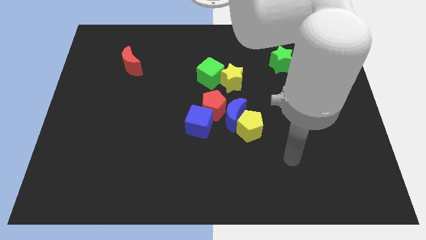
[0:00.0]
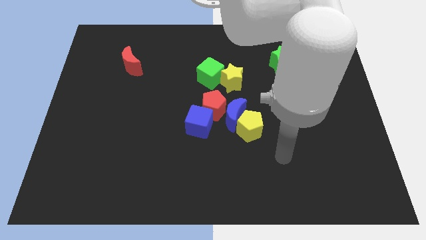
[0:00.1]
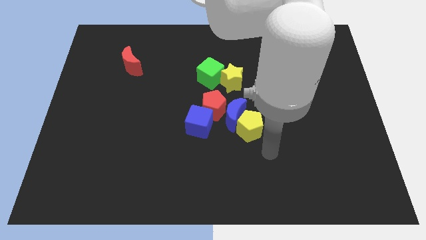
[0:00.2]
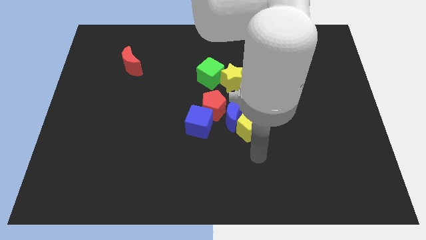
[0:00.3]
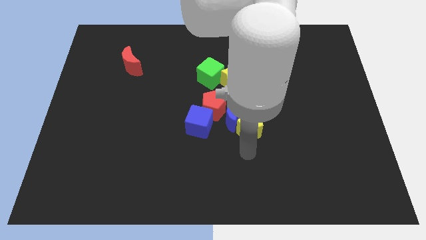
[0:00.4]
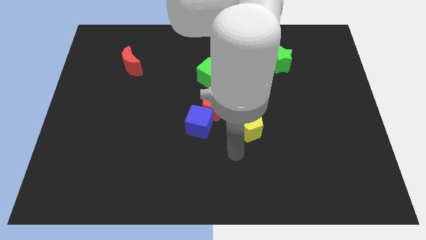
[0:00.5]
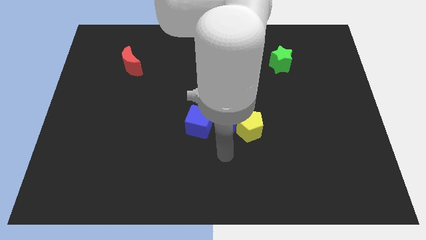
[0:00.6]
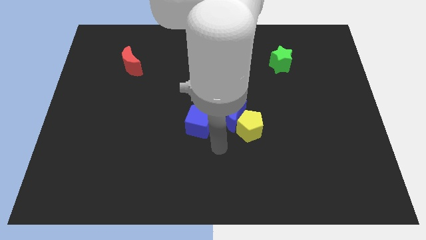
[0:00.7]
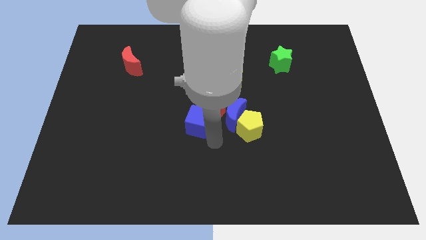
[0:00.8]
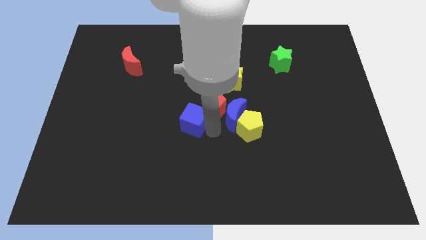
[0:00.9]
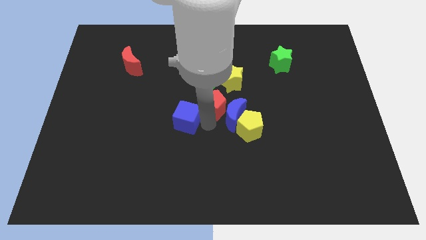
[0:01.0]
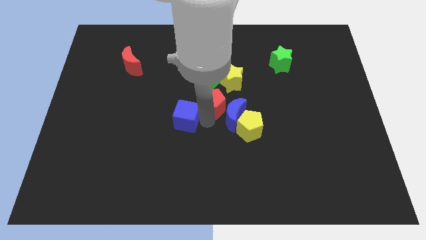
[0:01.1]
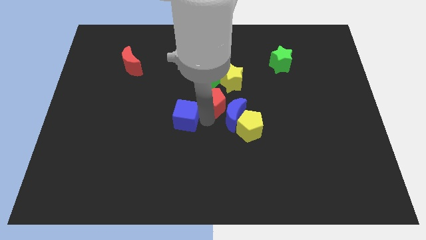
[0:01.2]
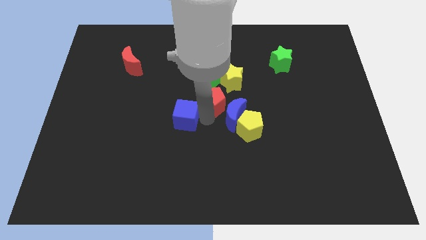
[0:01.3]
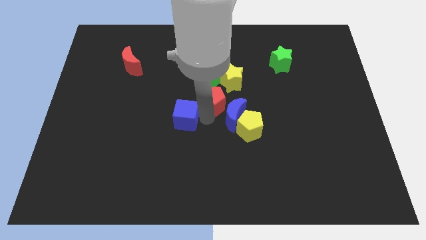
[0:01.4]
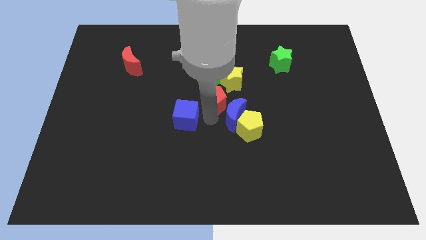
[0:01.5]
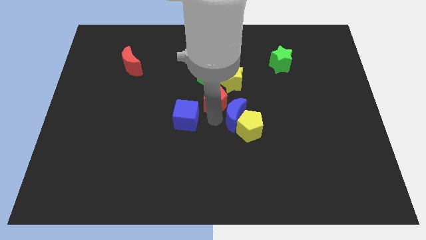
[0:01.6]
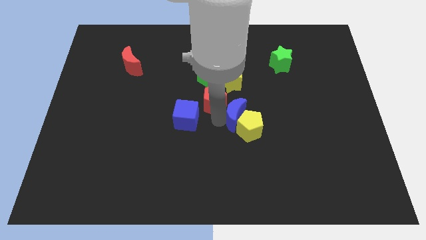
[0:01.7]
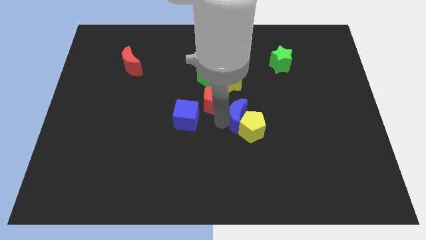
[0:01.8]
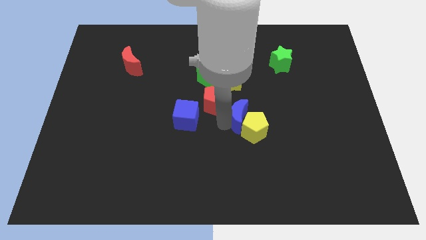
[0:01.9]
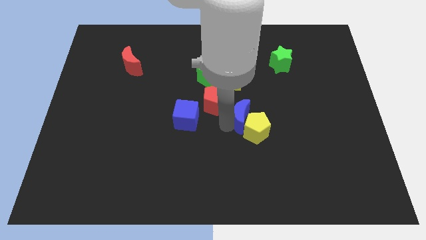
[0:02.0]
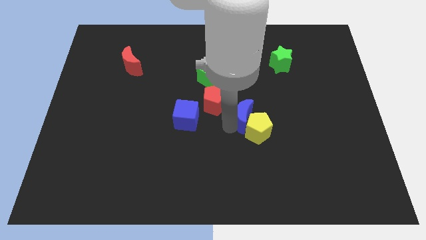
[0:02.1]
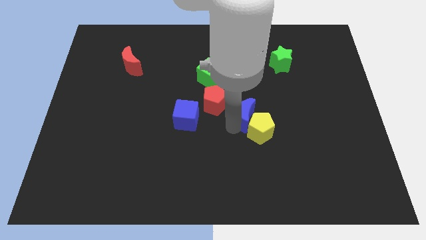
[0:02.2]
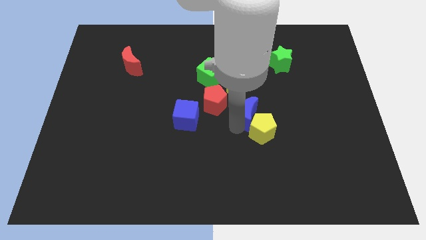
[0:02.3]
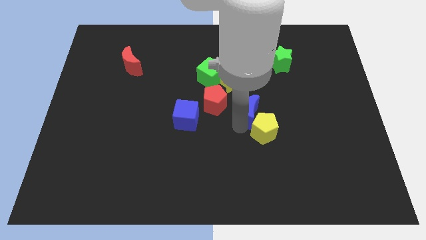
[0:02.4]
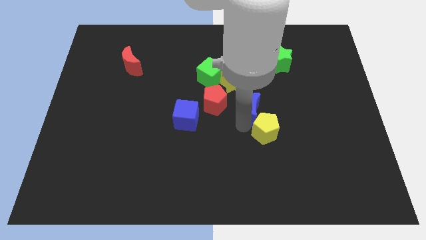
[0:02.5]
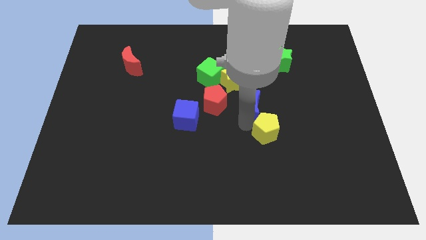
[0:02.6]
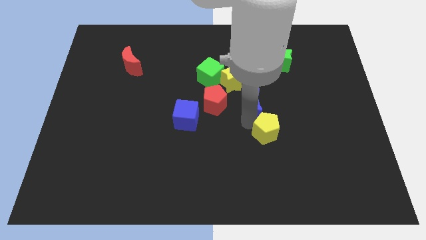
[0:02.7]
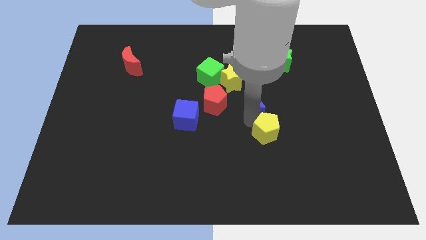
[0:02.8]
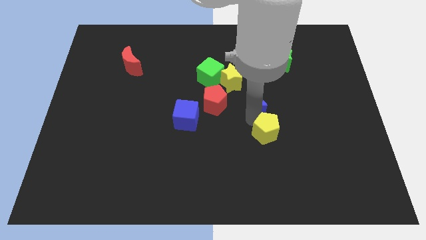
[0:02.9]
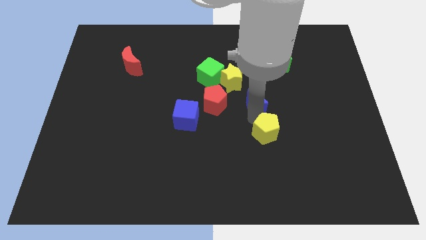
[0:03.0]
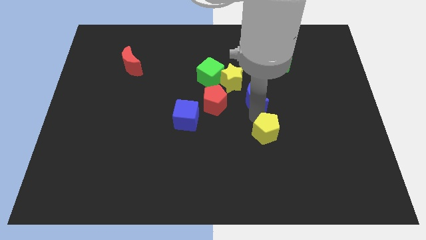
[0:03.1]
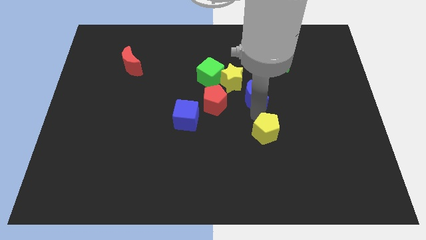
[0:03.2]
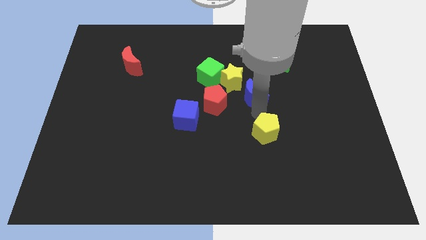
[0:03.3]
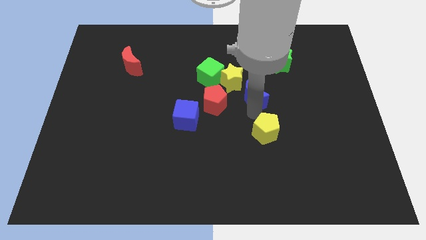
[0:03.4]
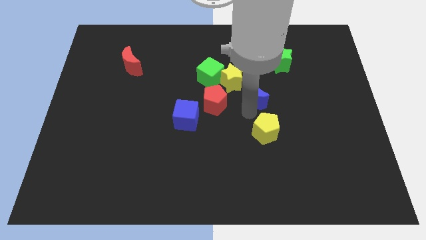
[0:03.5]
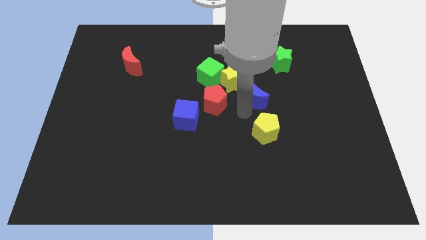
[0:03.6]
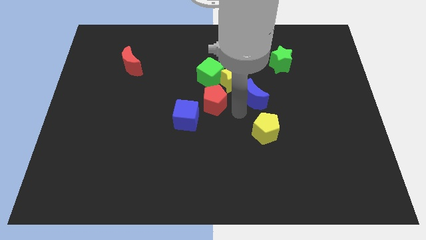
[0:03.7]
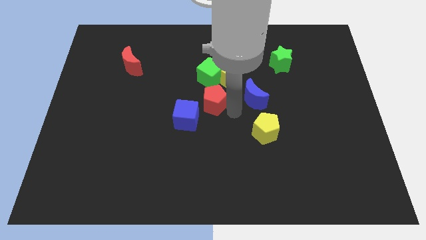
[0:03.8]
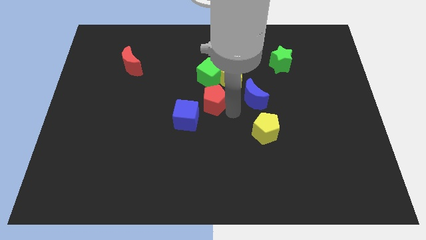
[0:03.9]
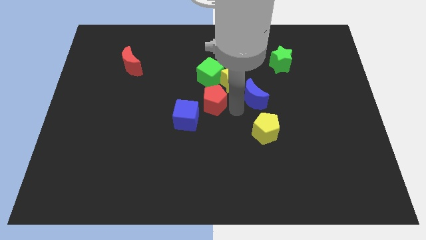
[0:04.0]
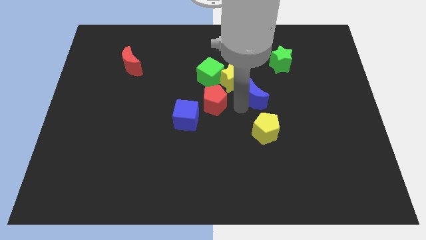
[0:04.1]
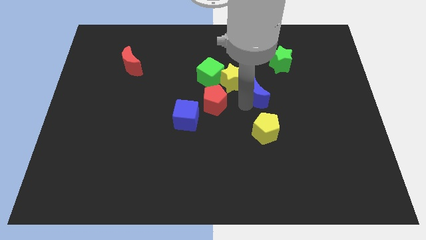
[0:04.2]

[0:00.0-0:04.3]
separate the blue moon from the group of blocks

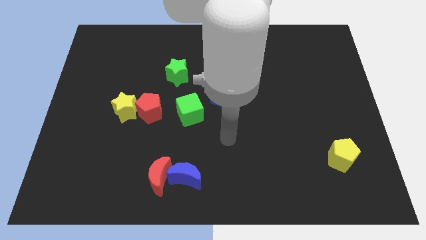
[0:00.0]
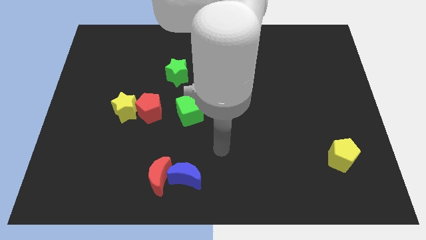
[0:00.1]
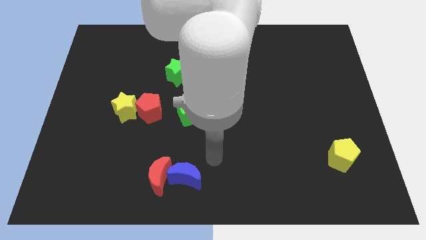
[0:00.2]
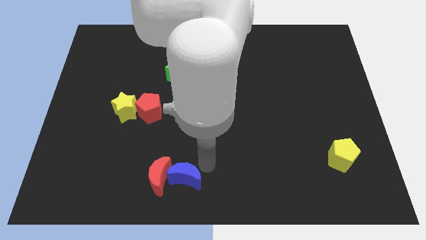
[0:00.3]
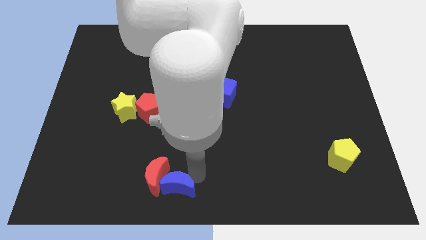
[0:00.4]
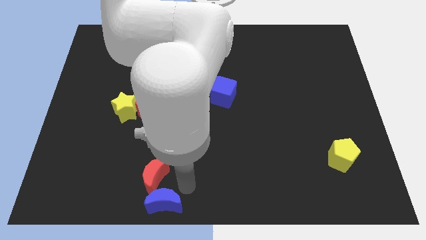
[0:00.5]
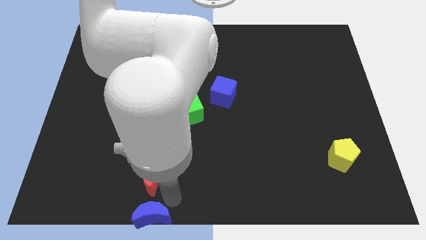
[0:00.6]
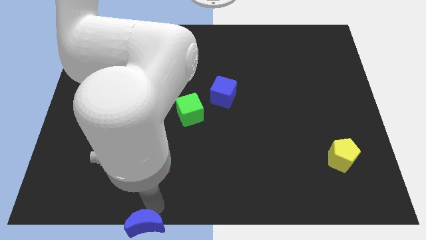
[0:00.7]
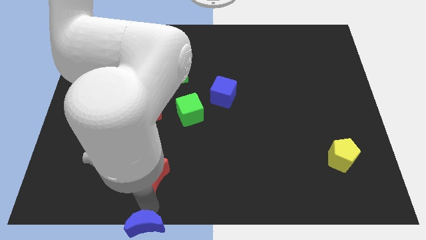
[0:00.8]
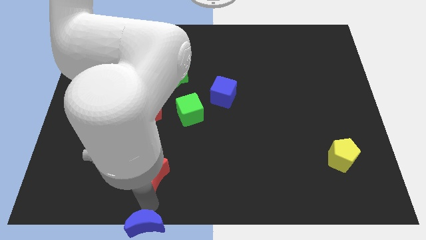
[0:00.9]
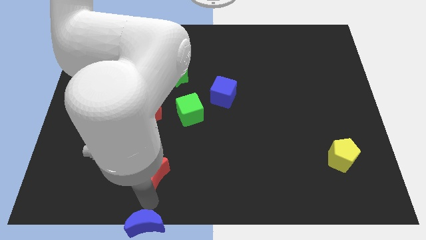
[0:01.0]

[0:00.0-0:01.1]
move the red moon away from the blue moon

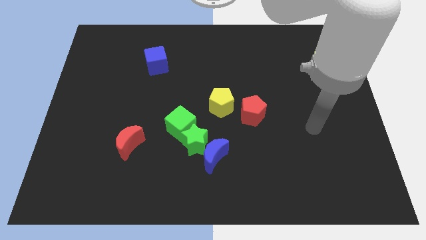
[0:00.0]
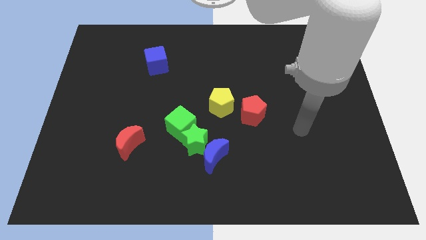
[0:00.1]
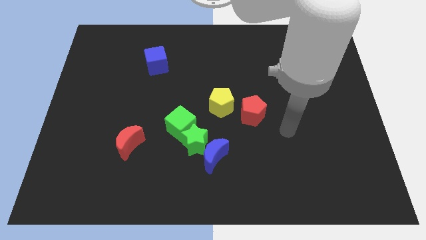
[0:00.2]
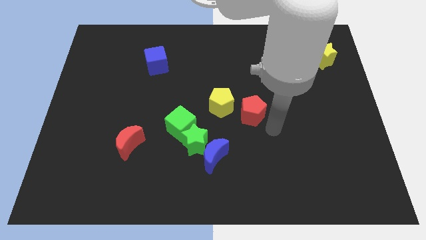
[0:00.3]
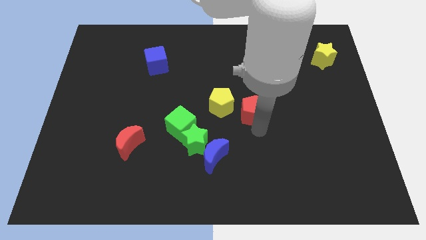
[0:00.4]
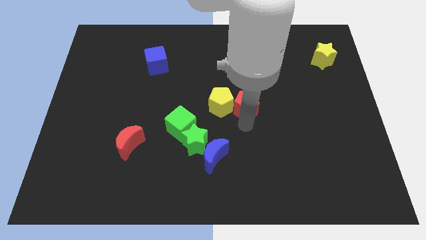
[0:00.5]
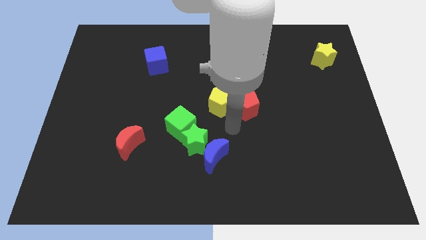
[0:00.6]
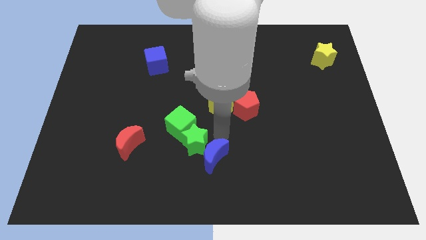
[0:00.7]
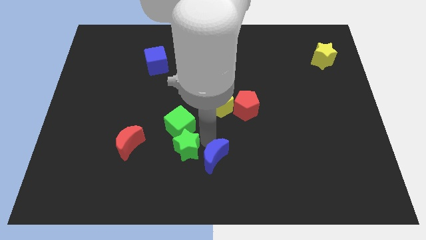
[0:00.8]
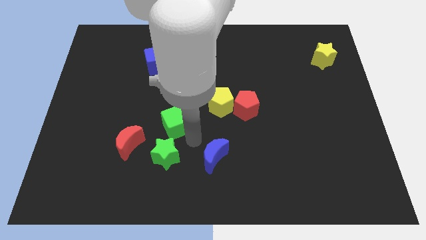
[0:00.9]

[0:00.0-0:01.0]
move the blue moon away from the green star

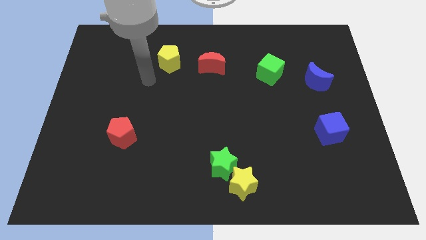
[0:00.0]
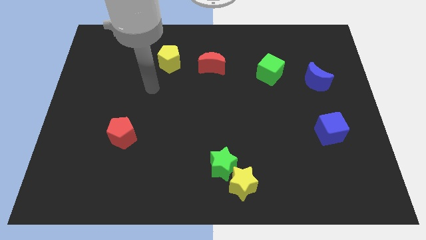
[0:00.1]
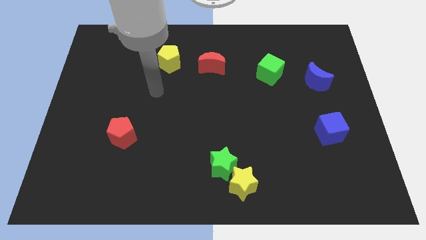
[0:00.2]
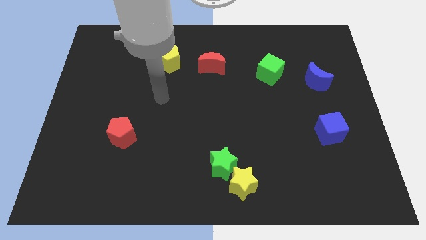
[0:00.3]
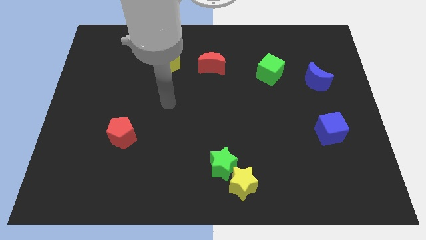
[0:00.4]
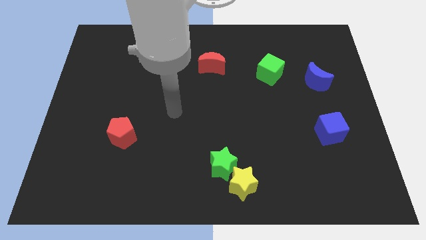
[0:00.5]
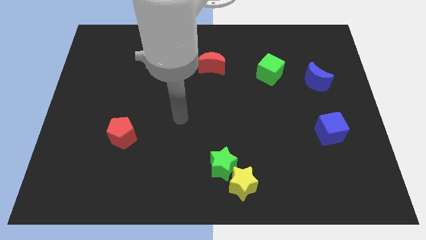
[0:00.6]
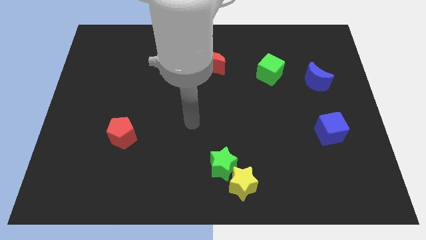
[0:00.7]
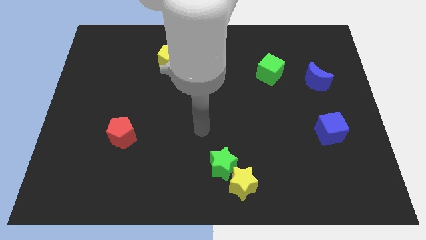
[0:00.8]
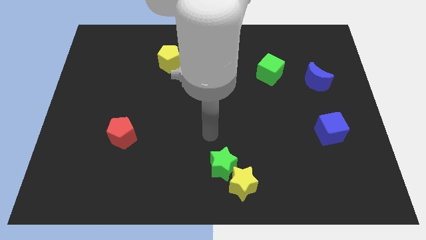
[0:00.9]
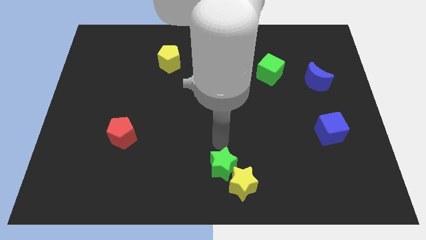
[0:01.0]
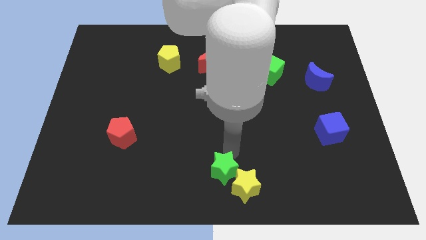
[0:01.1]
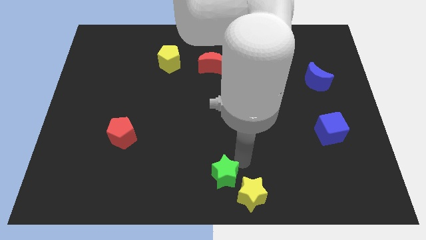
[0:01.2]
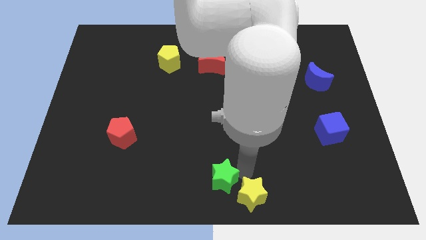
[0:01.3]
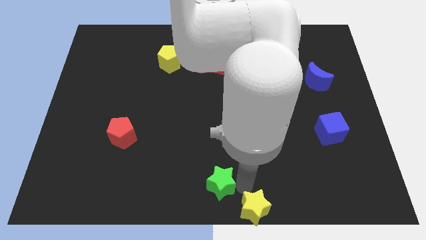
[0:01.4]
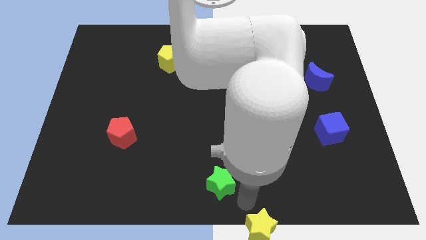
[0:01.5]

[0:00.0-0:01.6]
move the green star away from the yellow star

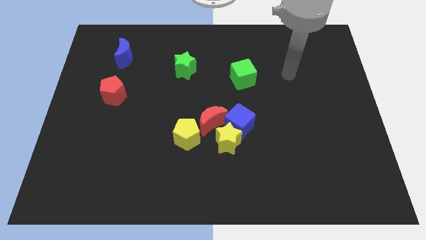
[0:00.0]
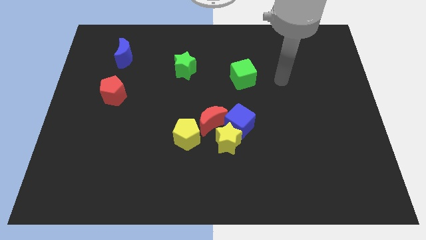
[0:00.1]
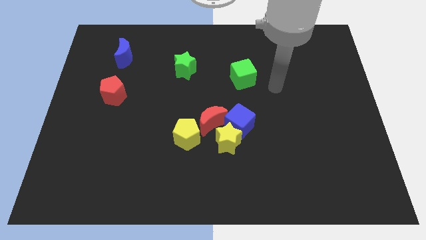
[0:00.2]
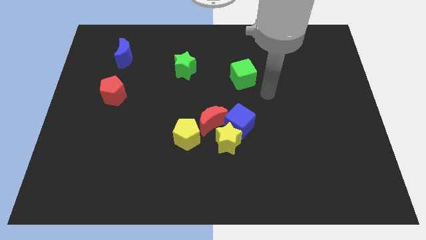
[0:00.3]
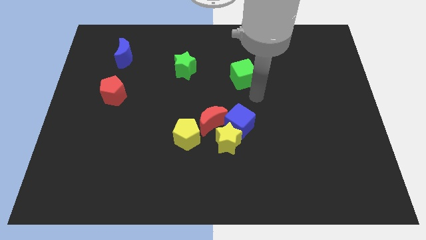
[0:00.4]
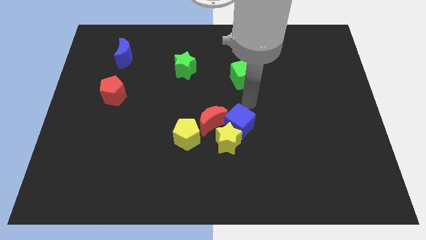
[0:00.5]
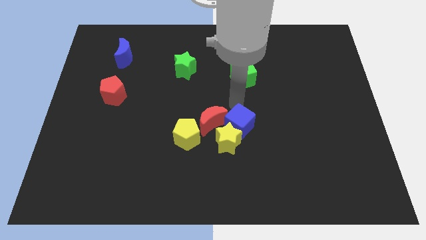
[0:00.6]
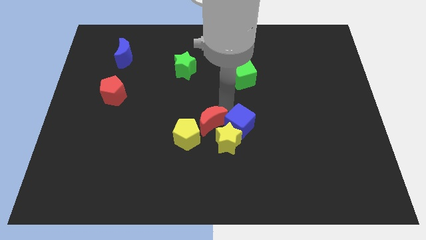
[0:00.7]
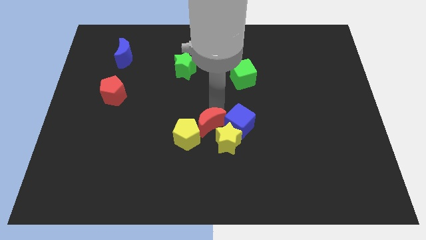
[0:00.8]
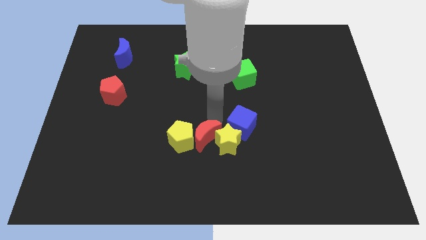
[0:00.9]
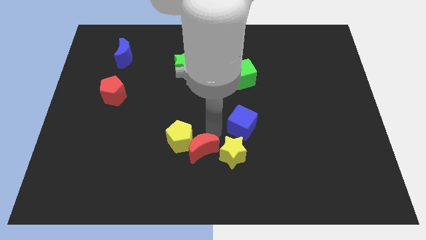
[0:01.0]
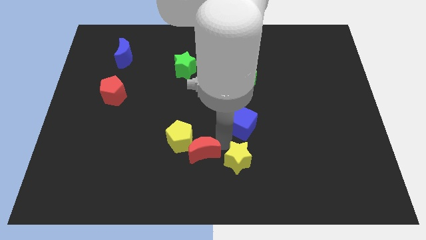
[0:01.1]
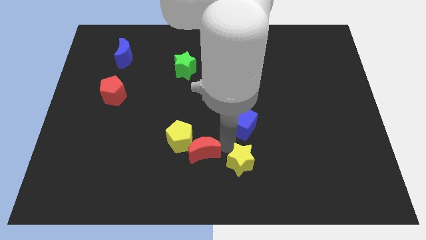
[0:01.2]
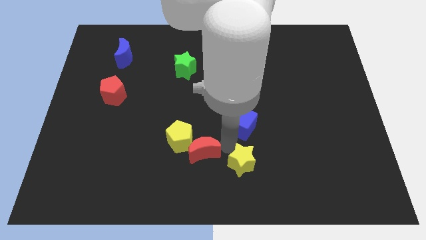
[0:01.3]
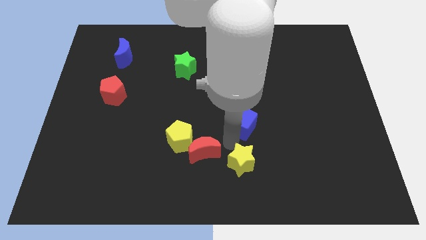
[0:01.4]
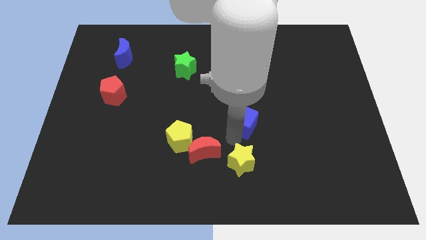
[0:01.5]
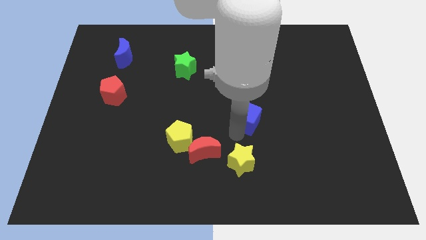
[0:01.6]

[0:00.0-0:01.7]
pull the blue cube apart from the yellow star and red moon
